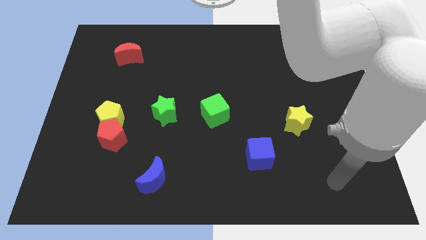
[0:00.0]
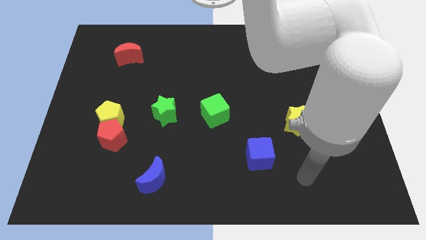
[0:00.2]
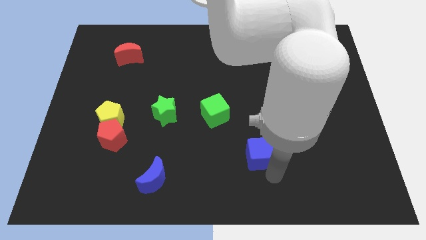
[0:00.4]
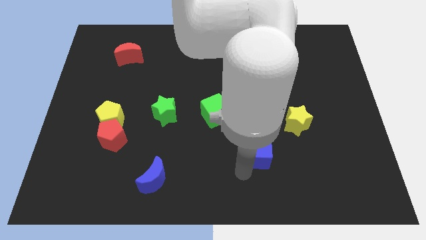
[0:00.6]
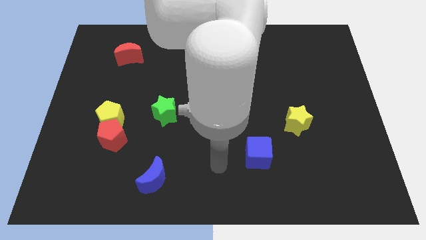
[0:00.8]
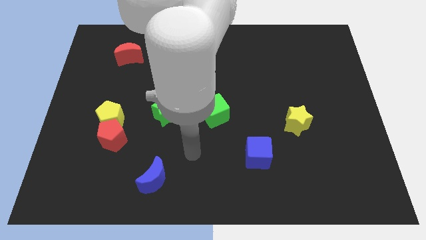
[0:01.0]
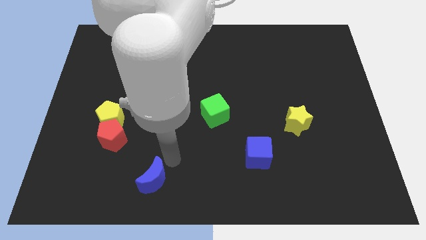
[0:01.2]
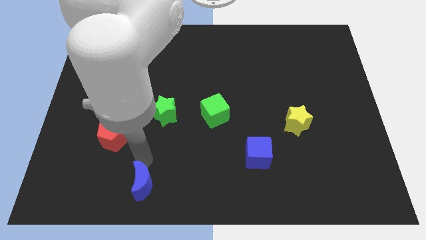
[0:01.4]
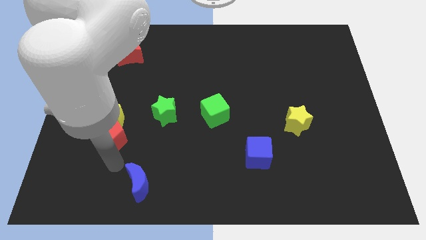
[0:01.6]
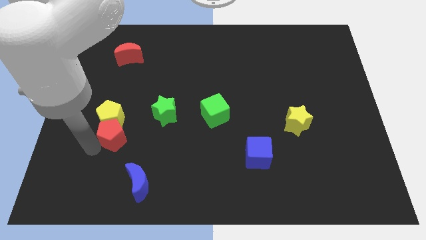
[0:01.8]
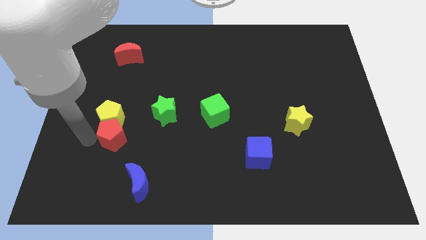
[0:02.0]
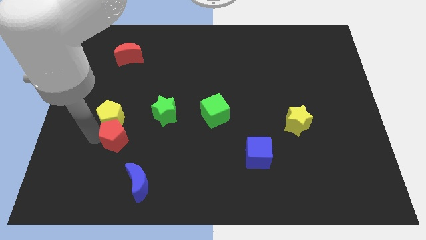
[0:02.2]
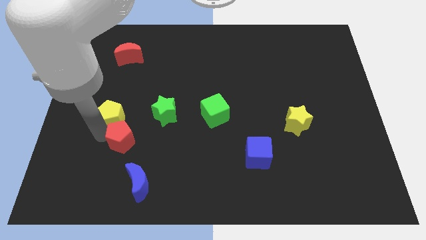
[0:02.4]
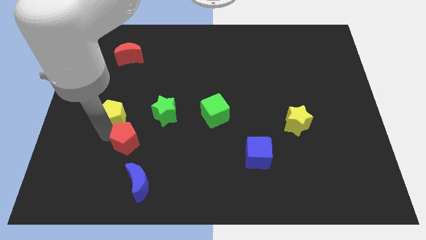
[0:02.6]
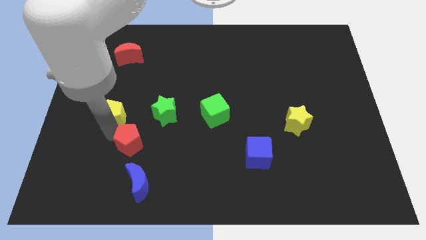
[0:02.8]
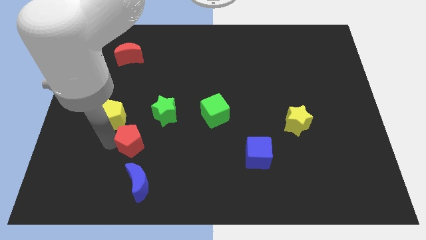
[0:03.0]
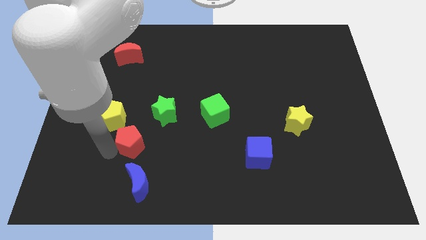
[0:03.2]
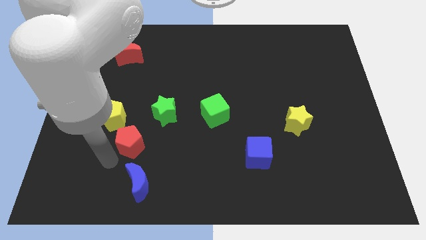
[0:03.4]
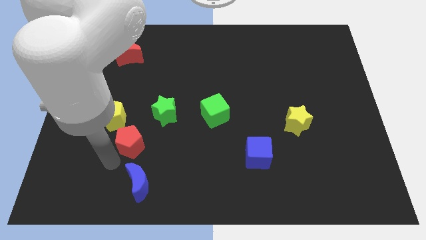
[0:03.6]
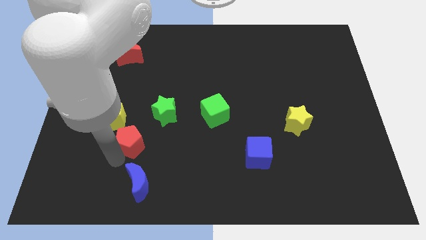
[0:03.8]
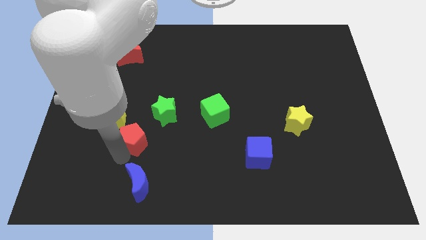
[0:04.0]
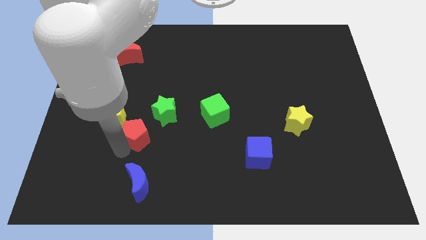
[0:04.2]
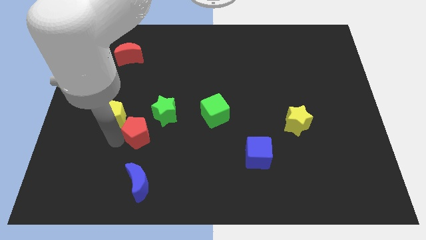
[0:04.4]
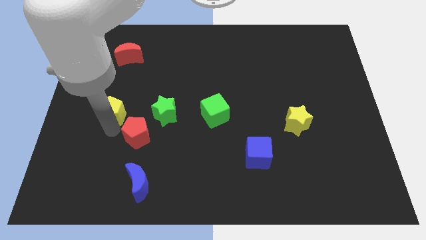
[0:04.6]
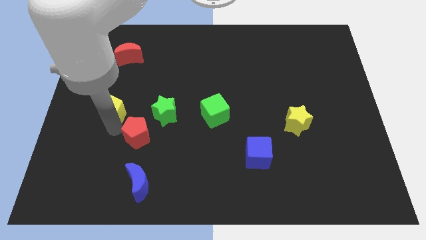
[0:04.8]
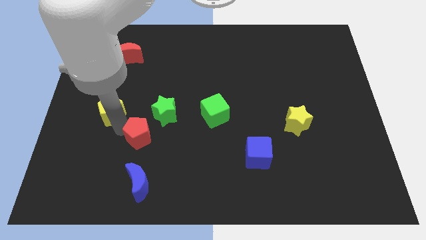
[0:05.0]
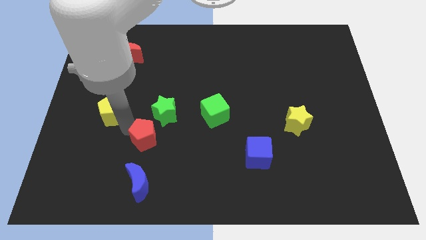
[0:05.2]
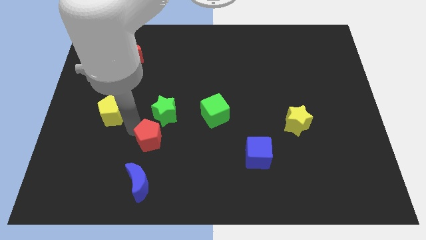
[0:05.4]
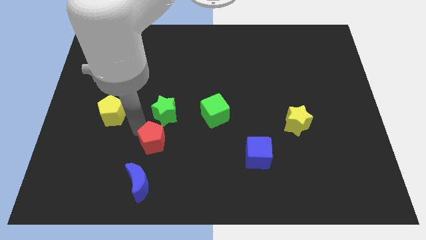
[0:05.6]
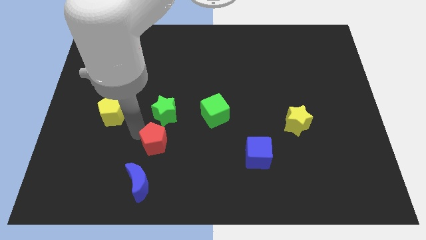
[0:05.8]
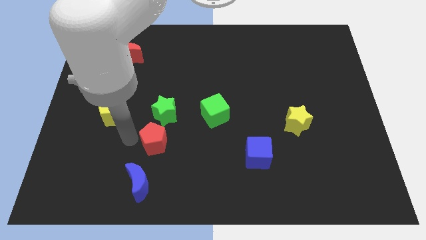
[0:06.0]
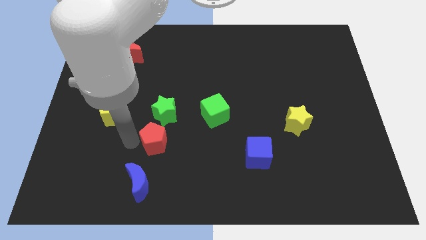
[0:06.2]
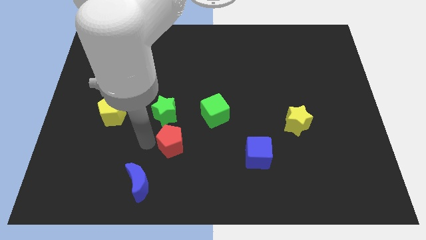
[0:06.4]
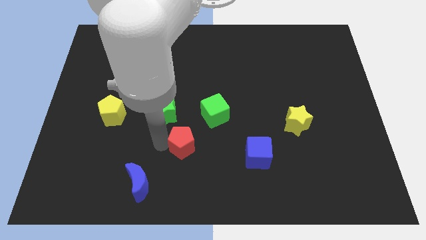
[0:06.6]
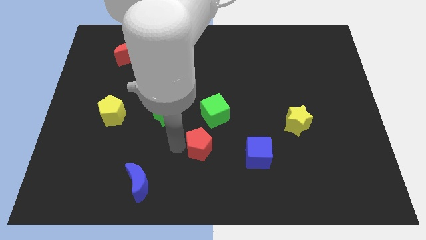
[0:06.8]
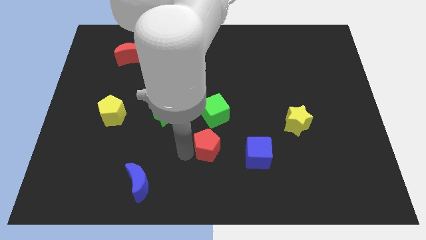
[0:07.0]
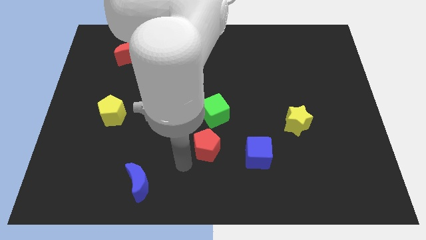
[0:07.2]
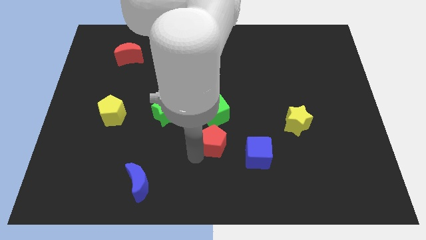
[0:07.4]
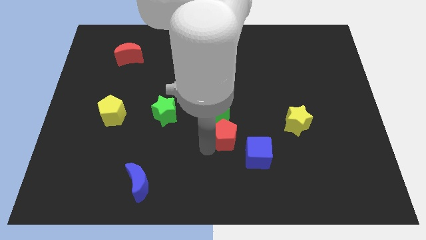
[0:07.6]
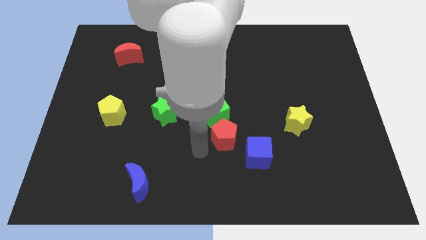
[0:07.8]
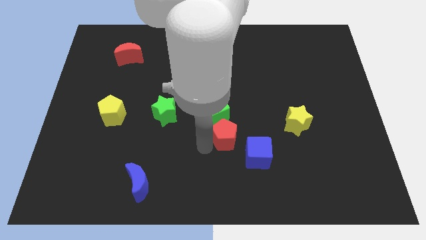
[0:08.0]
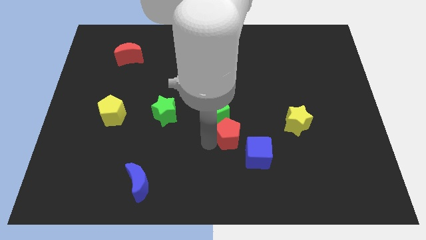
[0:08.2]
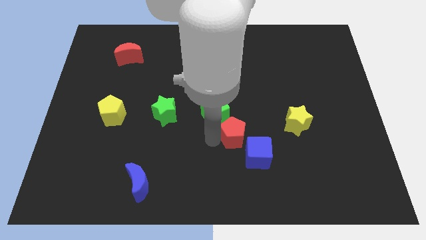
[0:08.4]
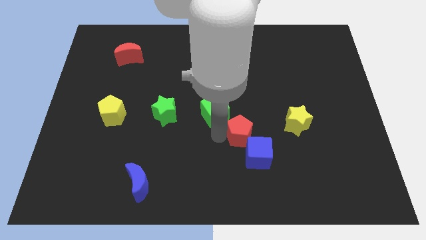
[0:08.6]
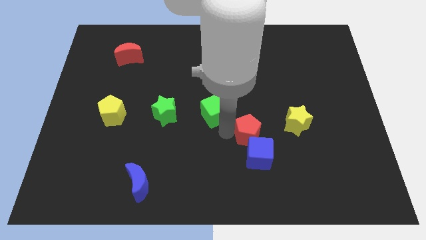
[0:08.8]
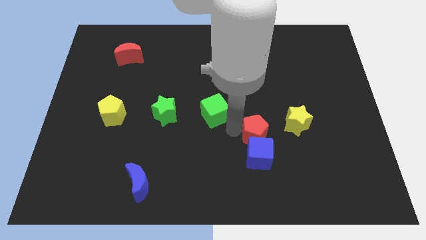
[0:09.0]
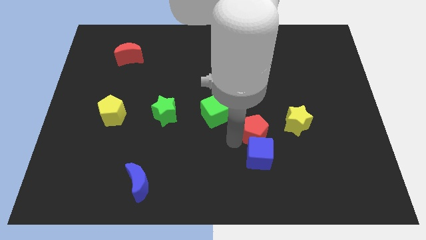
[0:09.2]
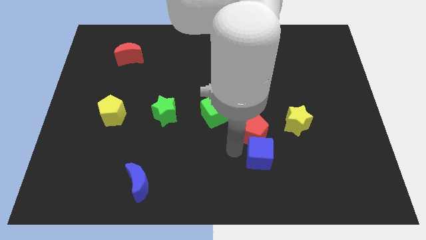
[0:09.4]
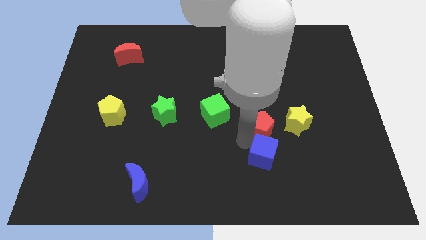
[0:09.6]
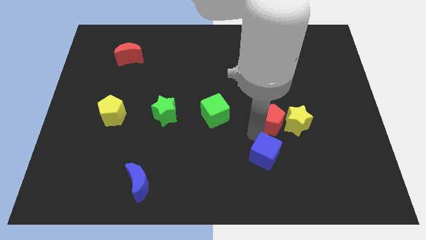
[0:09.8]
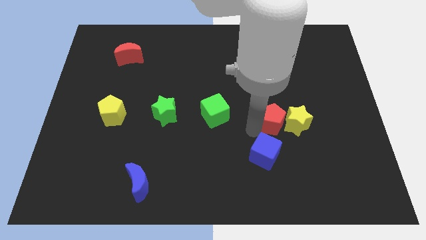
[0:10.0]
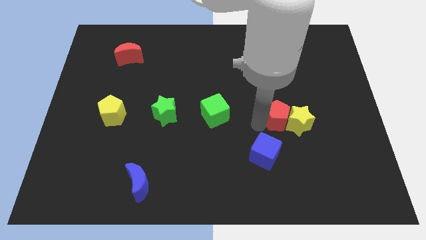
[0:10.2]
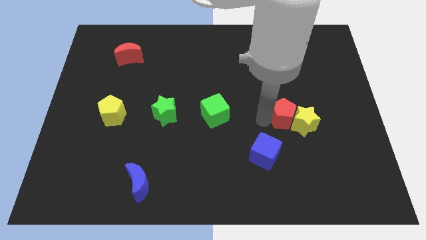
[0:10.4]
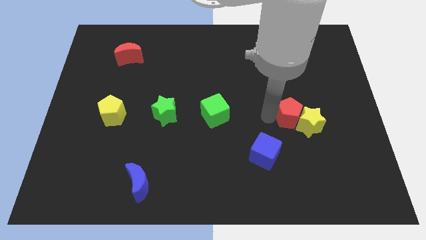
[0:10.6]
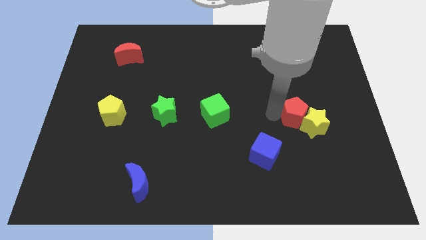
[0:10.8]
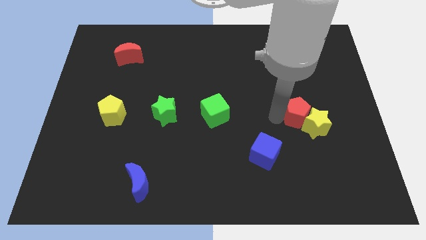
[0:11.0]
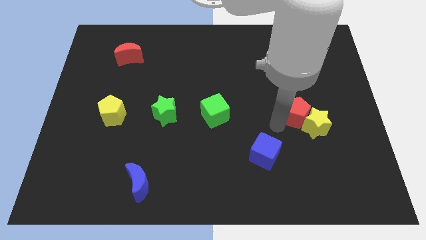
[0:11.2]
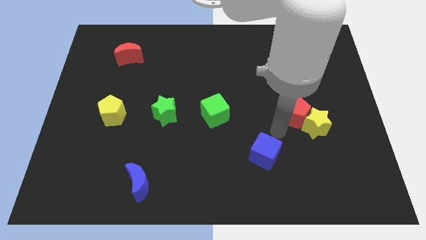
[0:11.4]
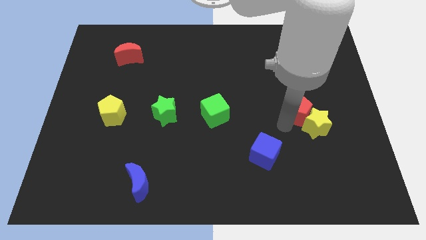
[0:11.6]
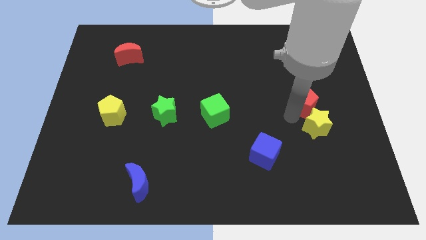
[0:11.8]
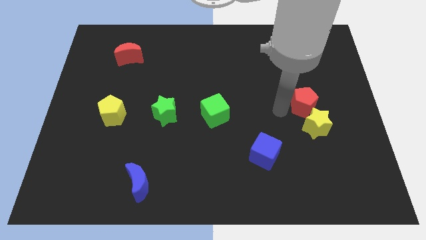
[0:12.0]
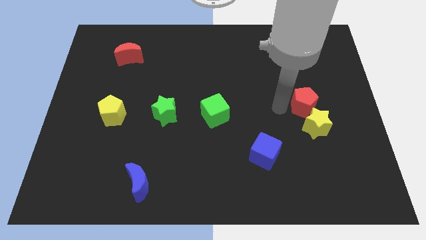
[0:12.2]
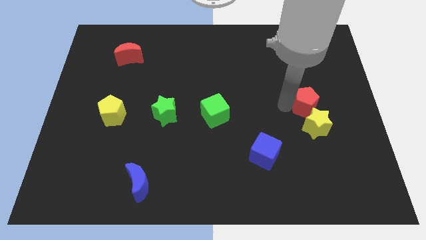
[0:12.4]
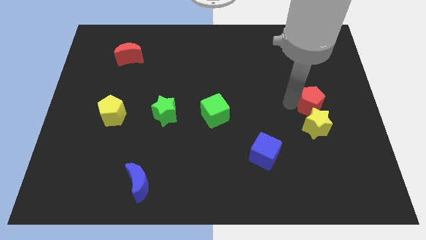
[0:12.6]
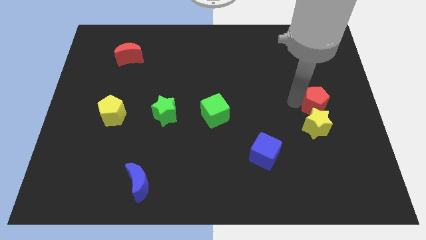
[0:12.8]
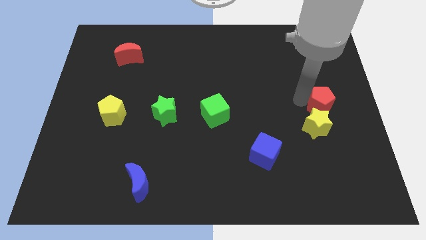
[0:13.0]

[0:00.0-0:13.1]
slide the red pentagon to the right side
